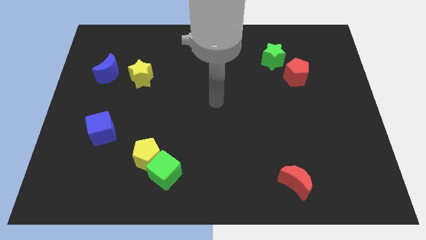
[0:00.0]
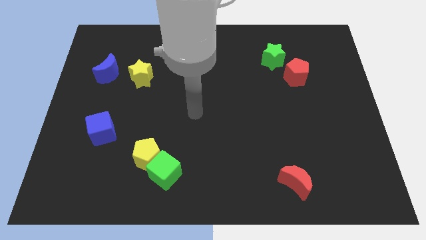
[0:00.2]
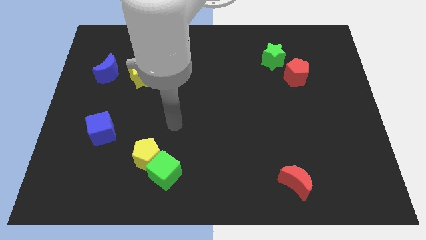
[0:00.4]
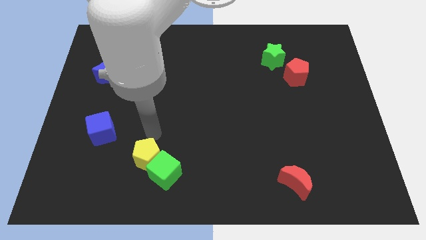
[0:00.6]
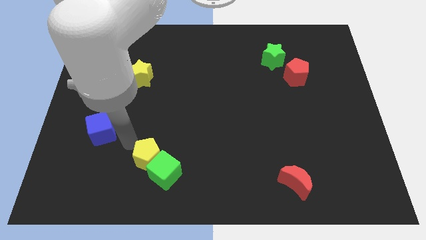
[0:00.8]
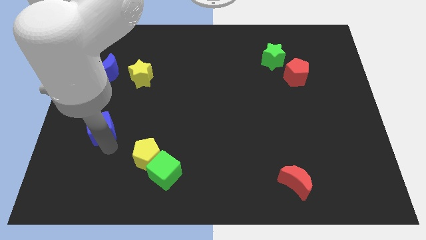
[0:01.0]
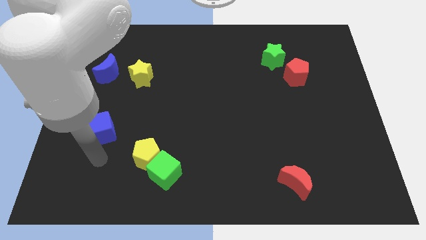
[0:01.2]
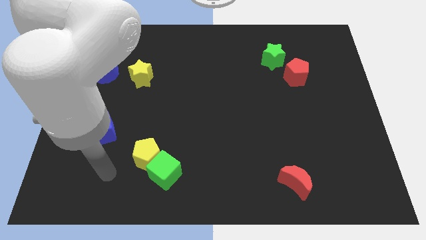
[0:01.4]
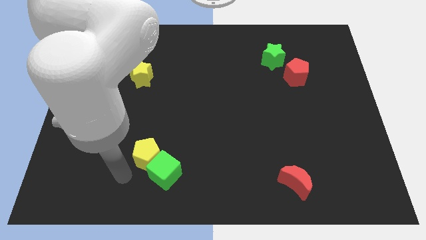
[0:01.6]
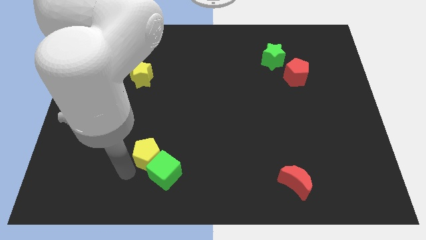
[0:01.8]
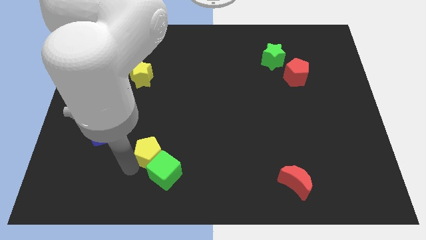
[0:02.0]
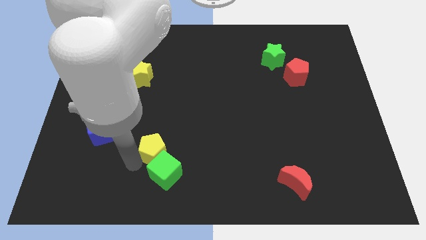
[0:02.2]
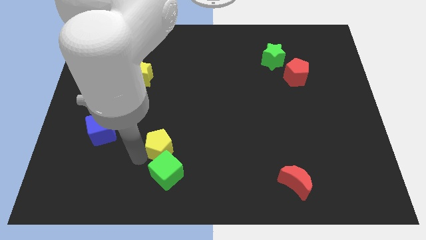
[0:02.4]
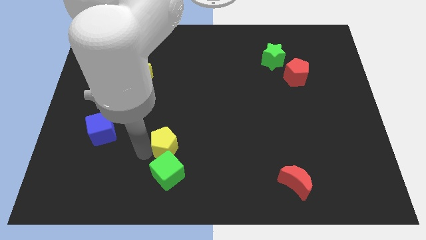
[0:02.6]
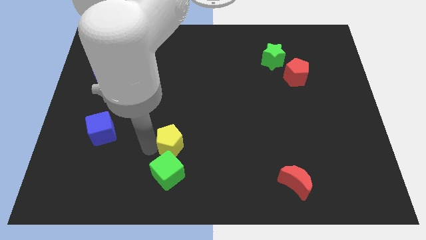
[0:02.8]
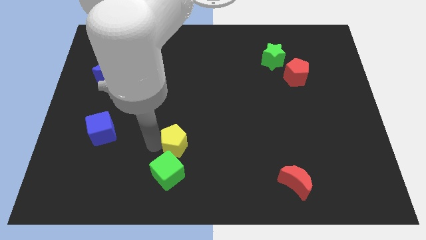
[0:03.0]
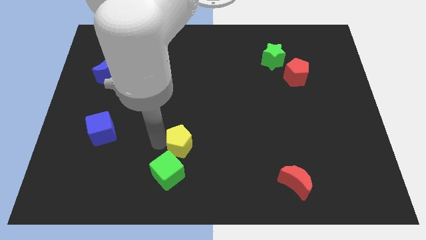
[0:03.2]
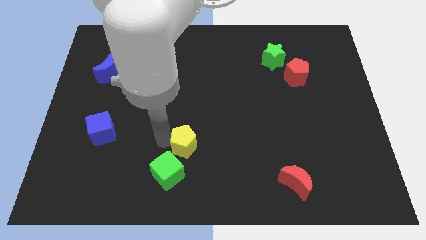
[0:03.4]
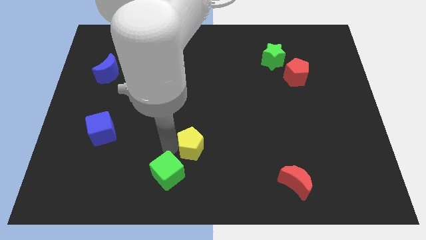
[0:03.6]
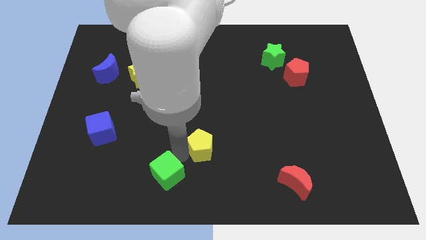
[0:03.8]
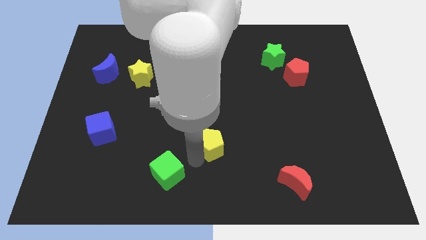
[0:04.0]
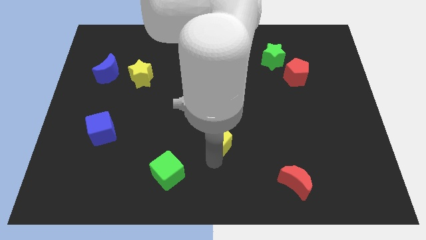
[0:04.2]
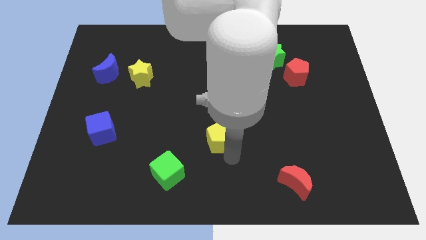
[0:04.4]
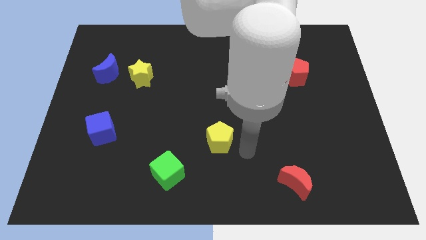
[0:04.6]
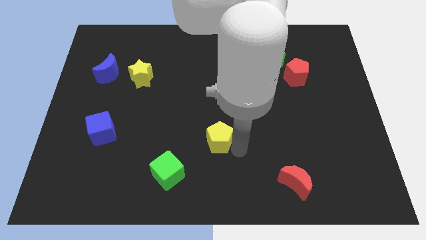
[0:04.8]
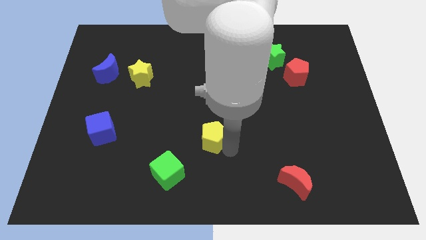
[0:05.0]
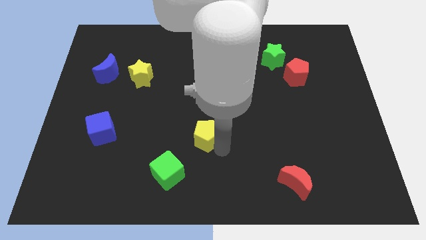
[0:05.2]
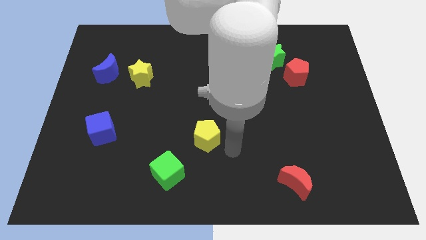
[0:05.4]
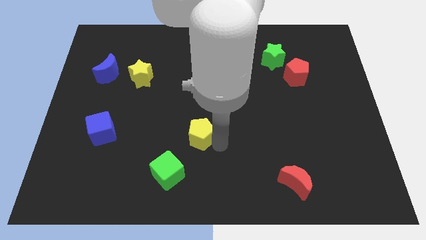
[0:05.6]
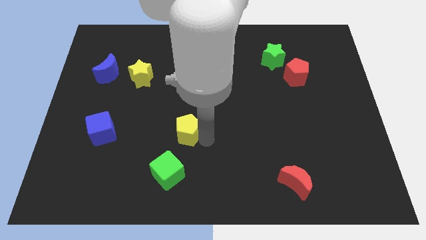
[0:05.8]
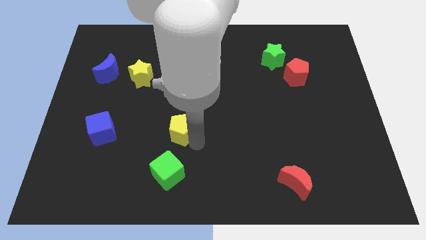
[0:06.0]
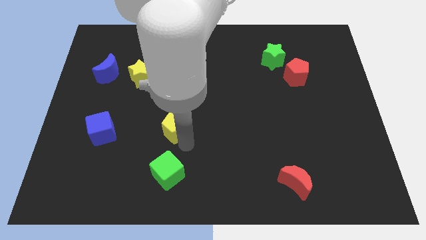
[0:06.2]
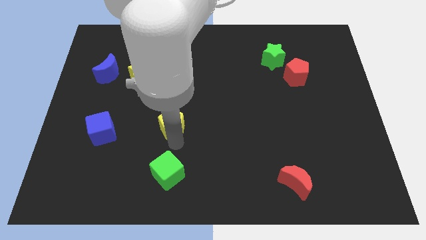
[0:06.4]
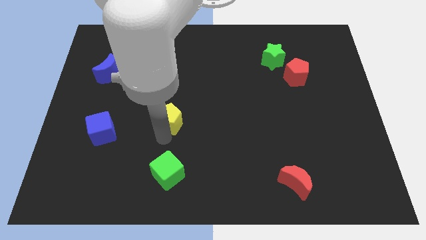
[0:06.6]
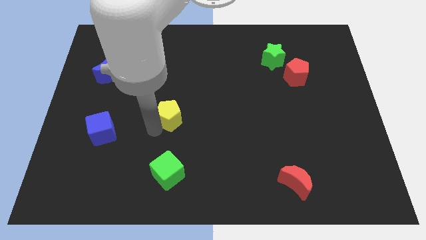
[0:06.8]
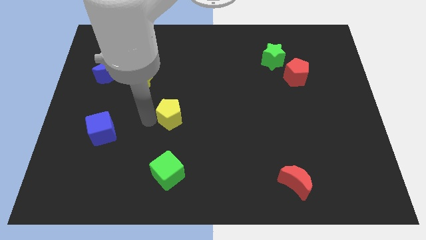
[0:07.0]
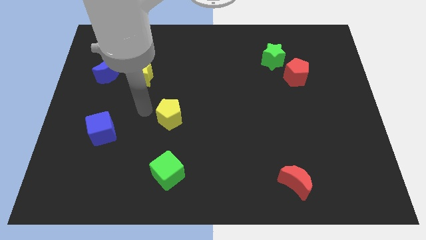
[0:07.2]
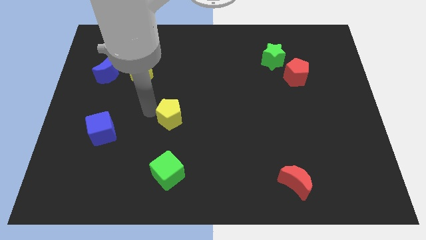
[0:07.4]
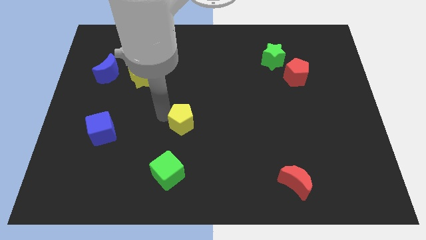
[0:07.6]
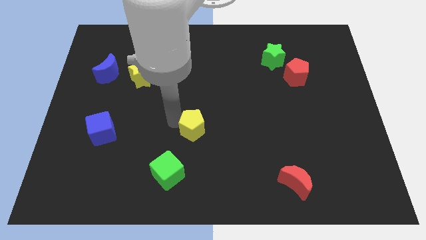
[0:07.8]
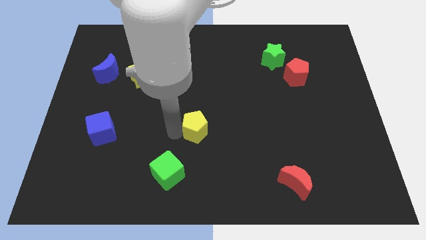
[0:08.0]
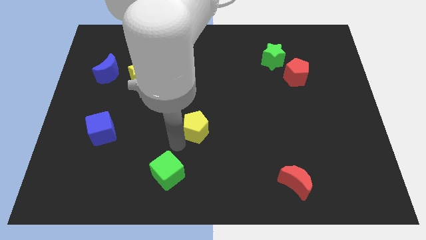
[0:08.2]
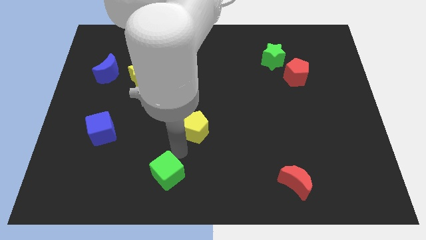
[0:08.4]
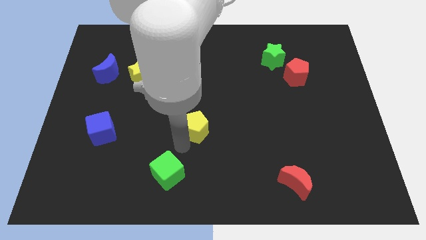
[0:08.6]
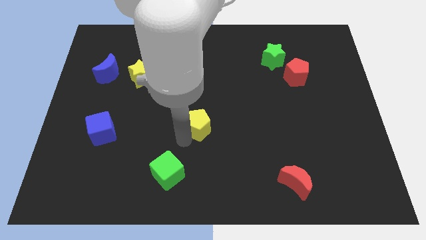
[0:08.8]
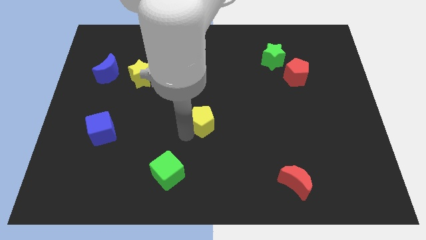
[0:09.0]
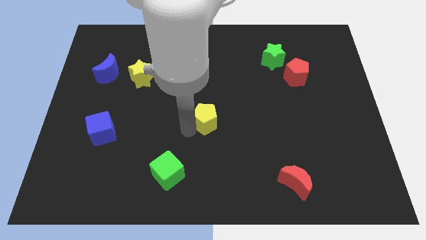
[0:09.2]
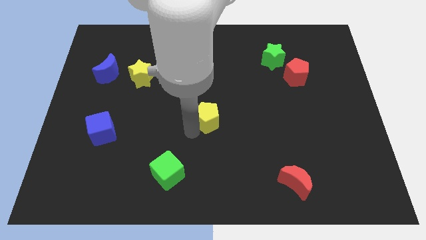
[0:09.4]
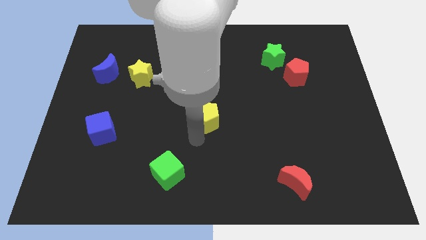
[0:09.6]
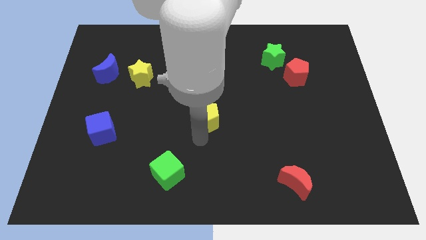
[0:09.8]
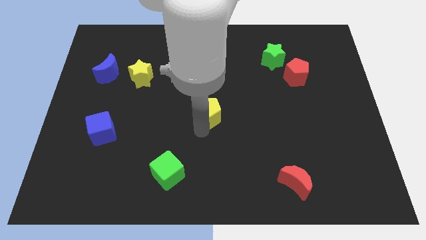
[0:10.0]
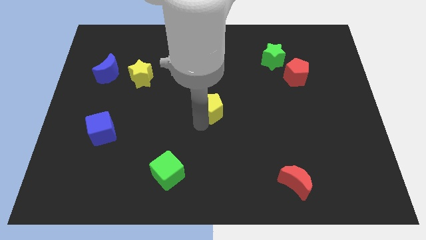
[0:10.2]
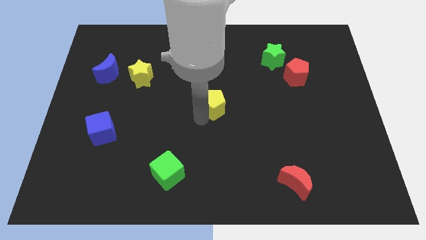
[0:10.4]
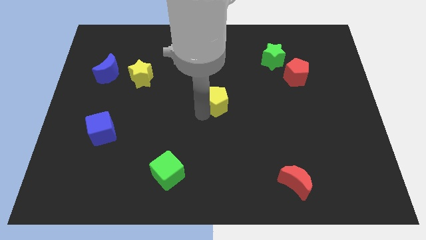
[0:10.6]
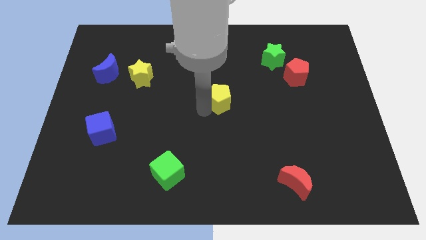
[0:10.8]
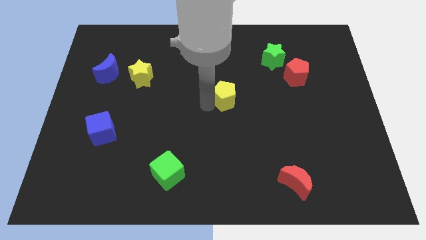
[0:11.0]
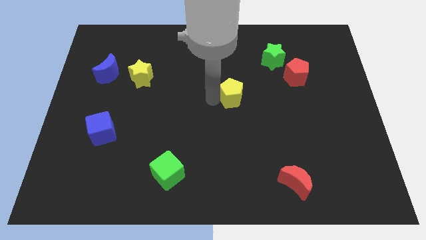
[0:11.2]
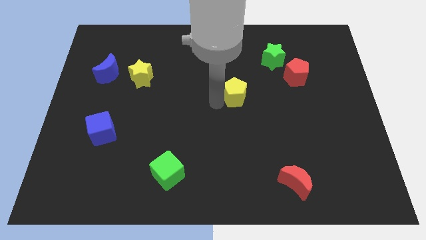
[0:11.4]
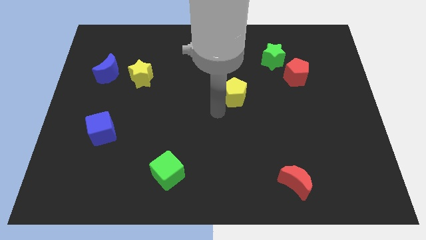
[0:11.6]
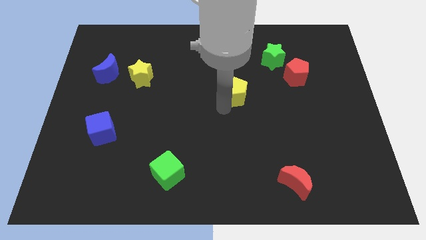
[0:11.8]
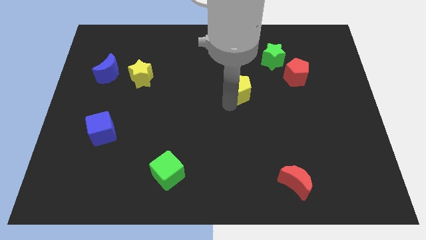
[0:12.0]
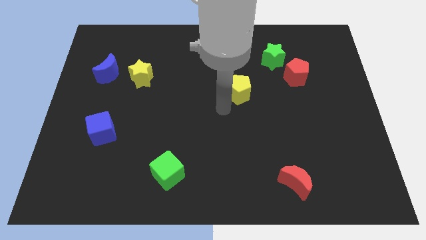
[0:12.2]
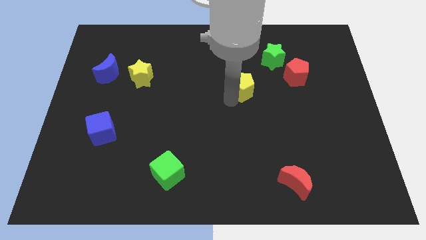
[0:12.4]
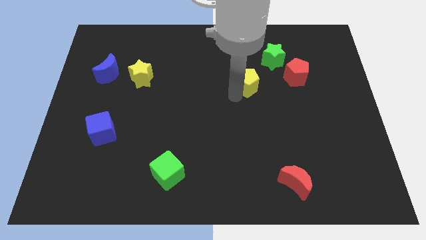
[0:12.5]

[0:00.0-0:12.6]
move the yellow pentagon to the bottom left of the green star
